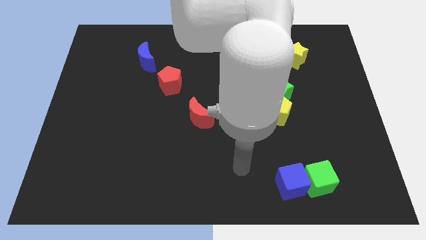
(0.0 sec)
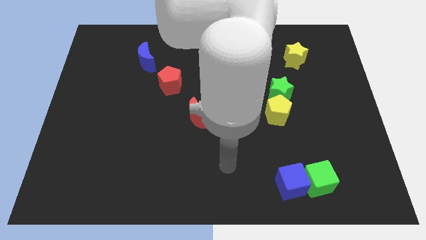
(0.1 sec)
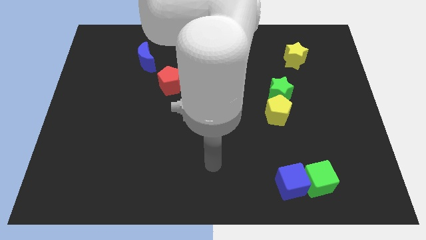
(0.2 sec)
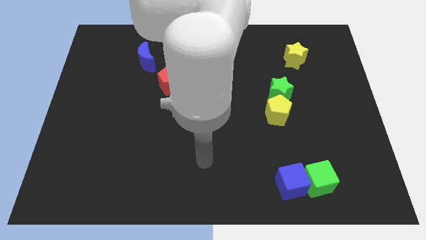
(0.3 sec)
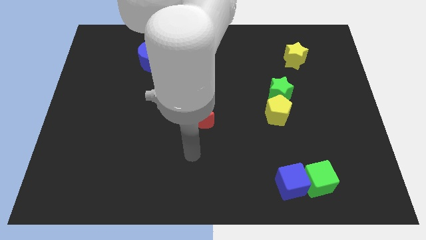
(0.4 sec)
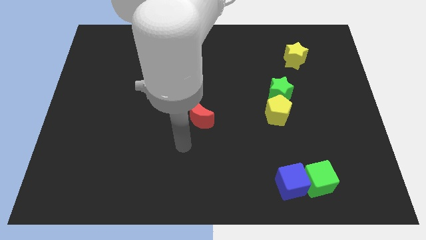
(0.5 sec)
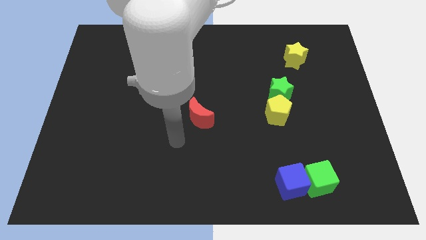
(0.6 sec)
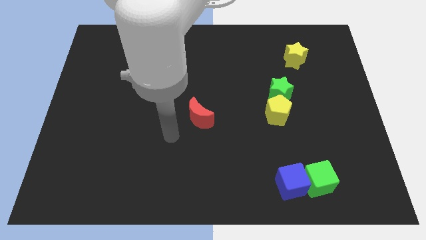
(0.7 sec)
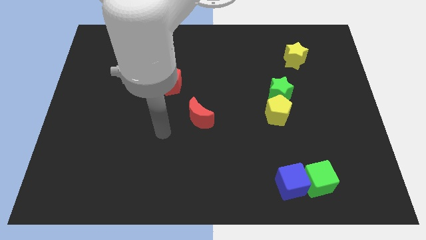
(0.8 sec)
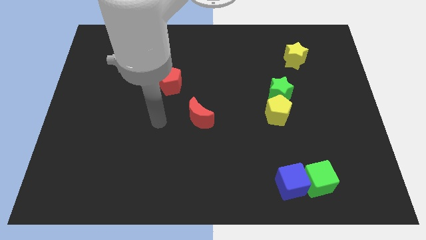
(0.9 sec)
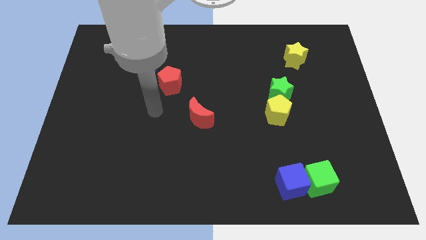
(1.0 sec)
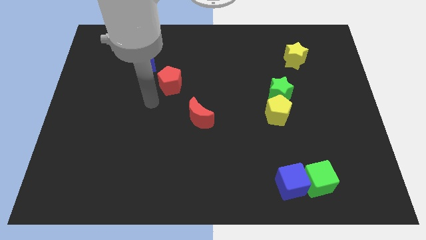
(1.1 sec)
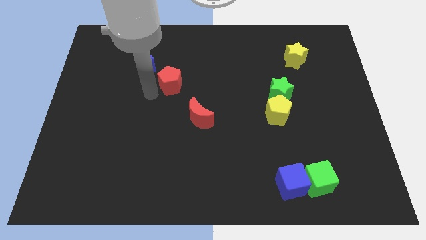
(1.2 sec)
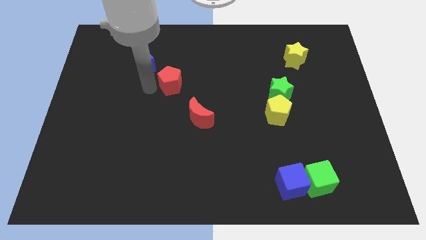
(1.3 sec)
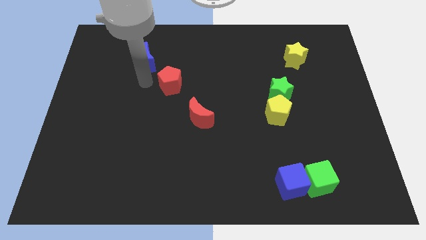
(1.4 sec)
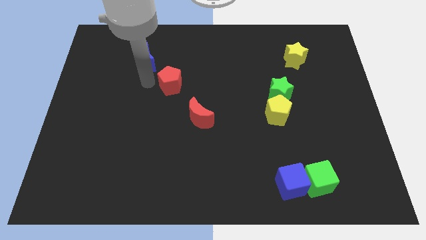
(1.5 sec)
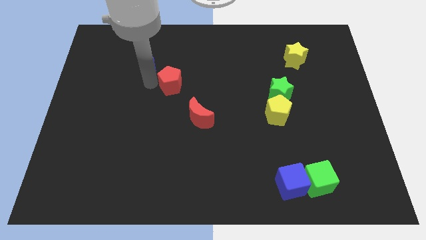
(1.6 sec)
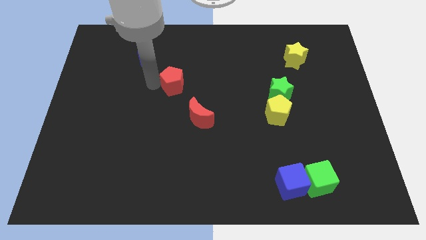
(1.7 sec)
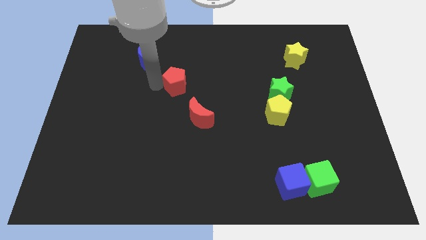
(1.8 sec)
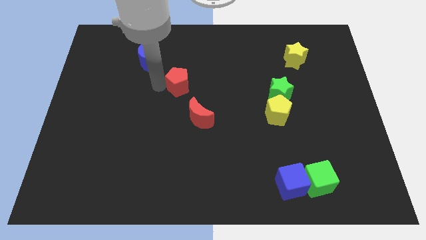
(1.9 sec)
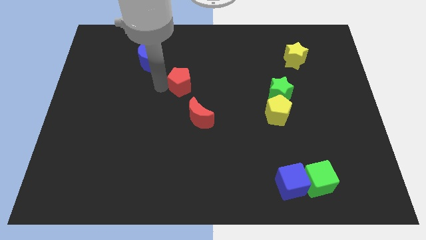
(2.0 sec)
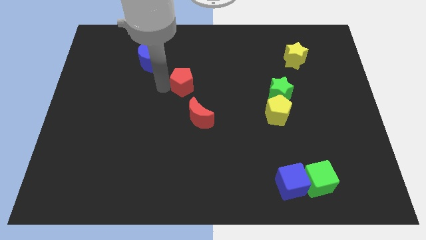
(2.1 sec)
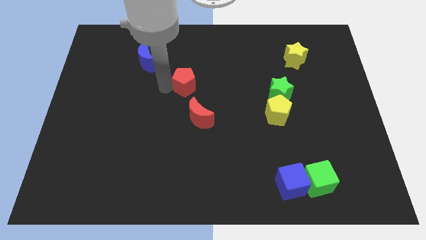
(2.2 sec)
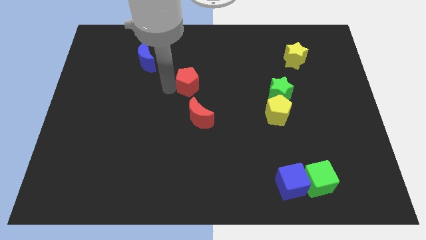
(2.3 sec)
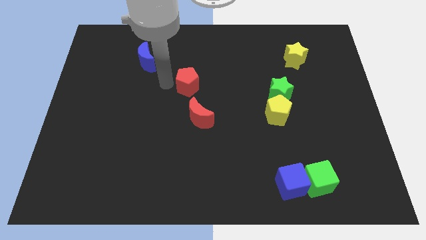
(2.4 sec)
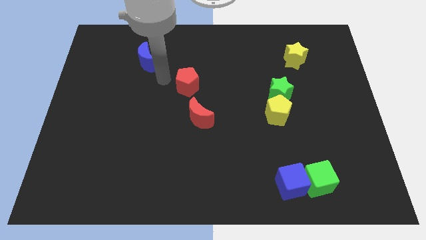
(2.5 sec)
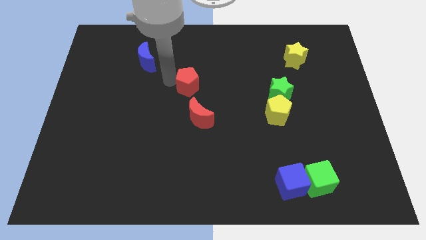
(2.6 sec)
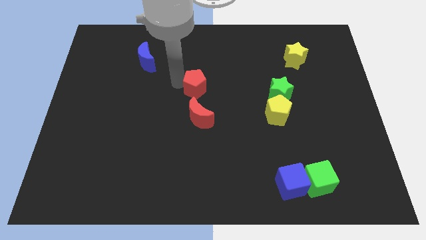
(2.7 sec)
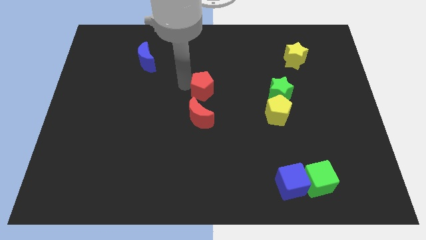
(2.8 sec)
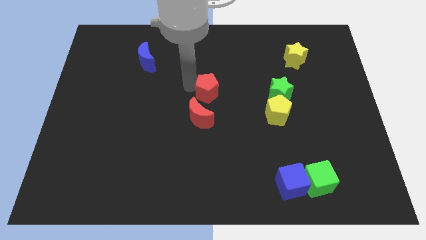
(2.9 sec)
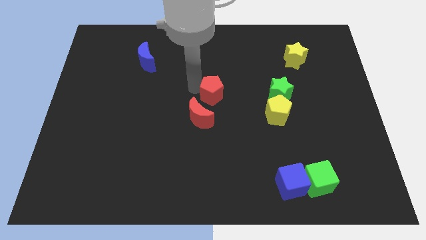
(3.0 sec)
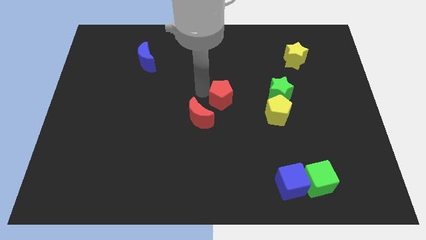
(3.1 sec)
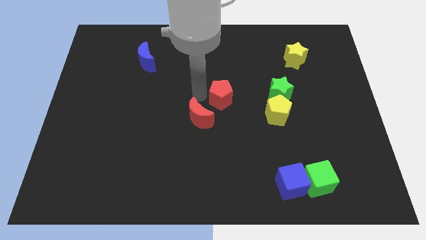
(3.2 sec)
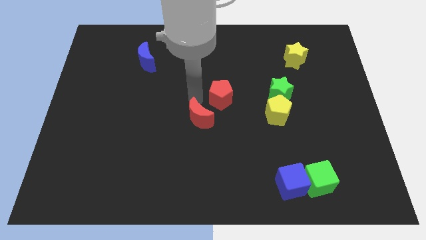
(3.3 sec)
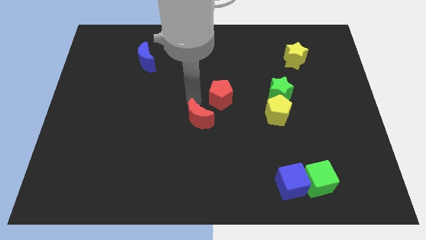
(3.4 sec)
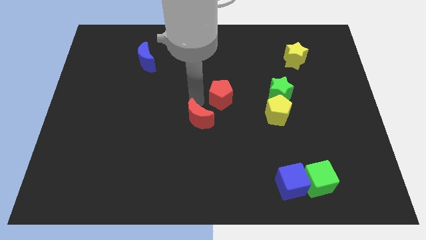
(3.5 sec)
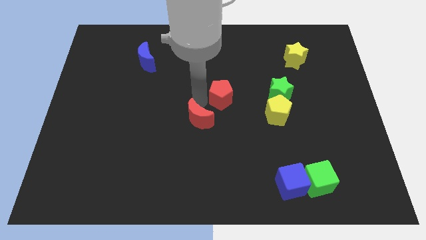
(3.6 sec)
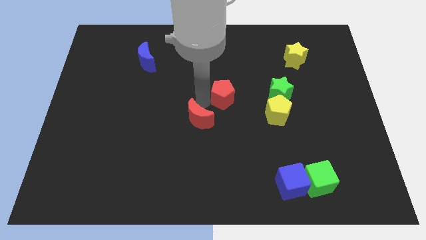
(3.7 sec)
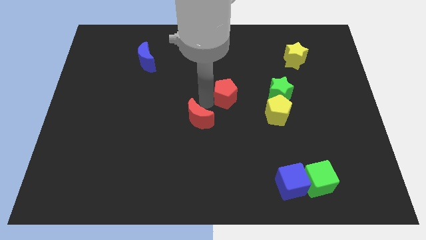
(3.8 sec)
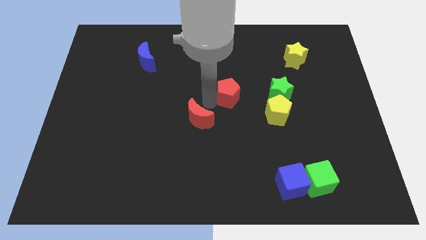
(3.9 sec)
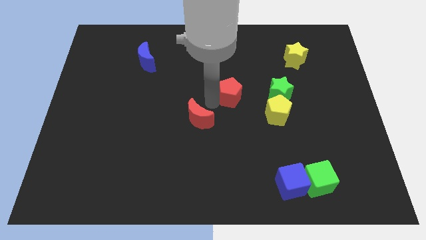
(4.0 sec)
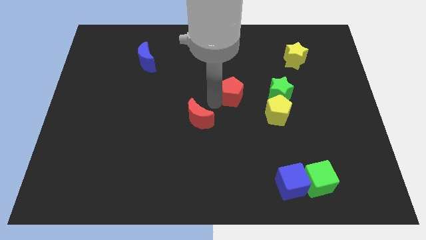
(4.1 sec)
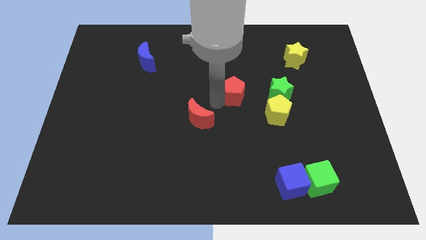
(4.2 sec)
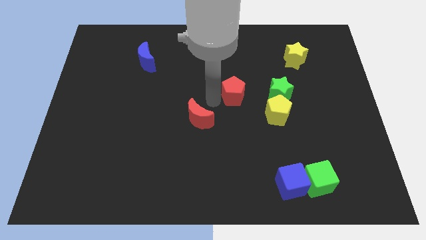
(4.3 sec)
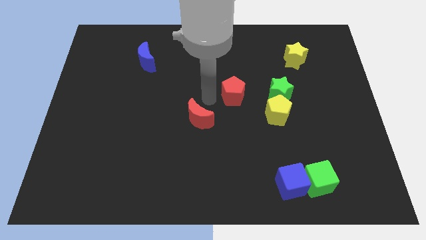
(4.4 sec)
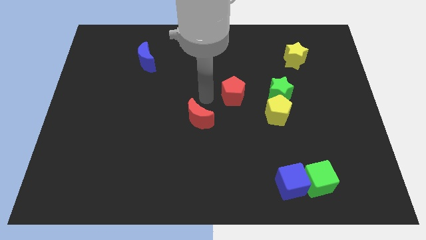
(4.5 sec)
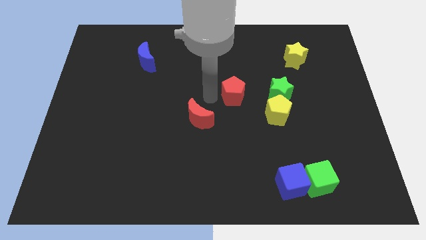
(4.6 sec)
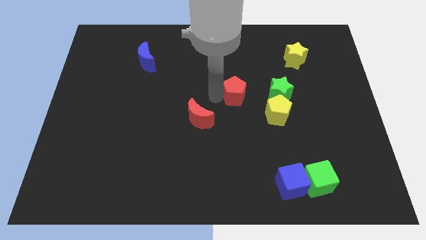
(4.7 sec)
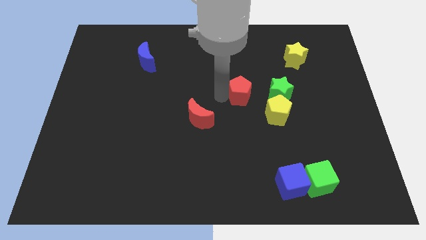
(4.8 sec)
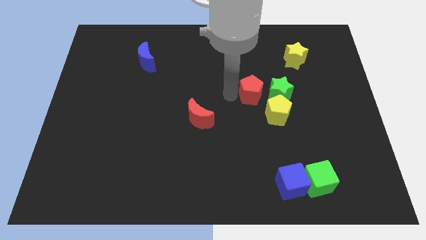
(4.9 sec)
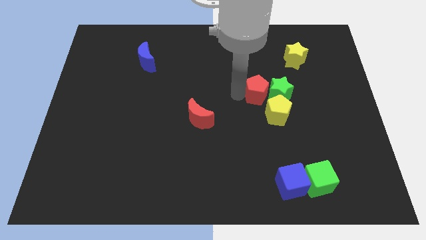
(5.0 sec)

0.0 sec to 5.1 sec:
push the red pentagon towards the green star

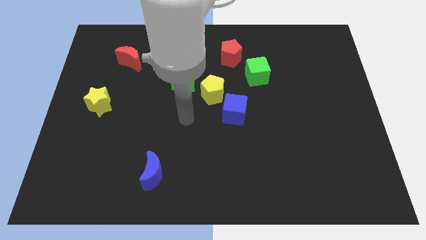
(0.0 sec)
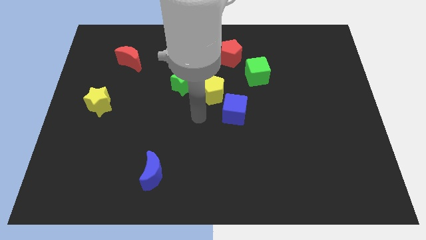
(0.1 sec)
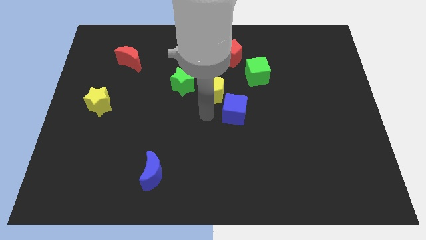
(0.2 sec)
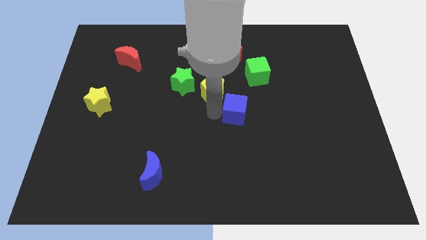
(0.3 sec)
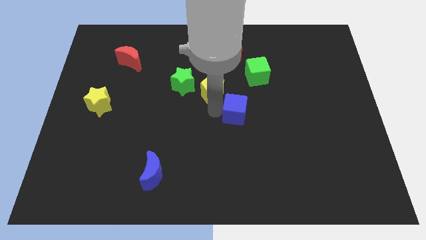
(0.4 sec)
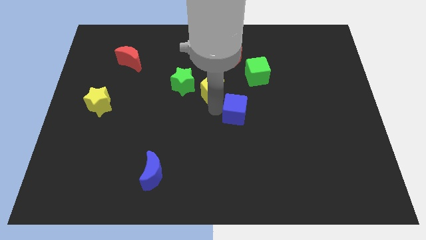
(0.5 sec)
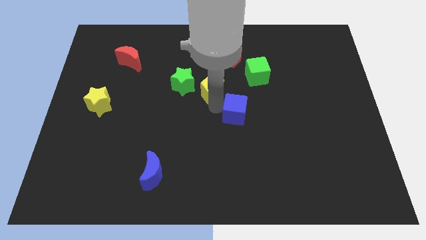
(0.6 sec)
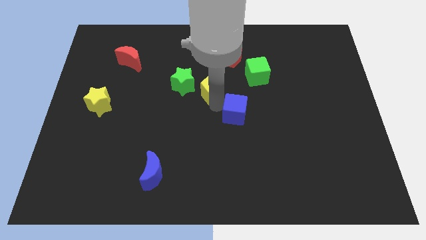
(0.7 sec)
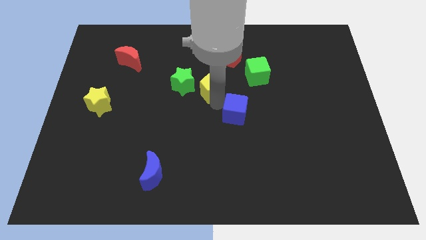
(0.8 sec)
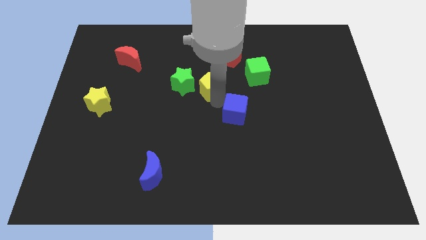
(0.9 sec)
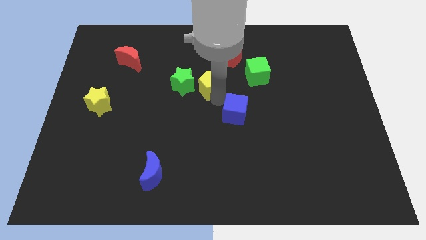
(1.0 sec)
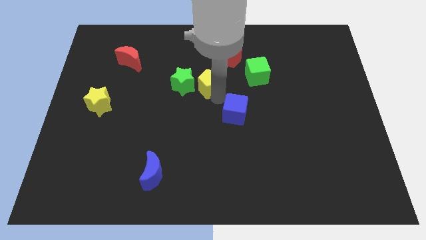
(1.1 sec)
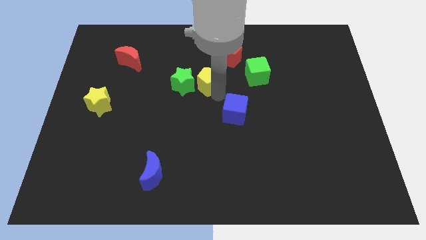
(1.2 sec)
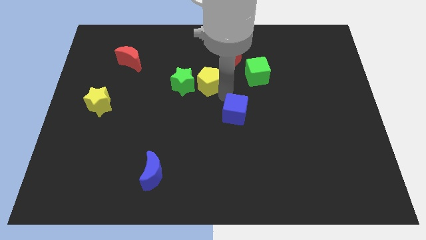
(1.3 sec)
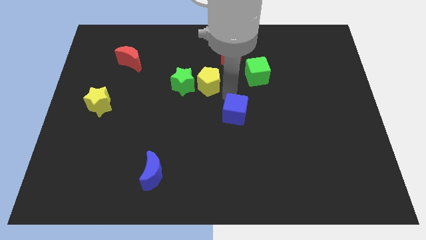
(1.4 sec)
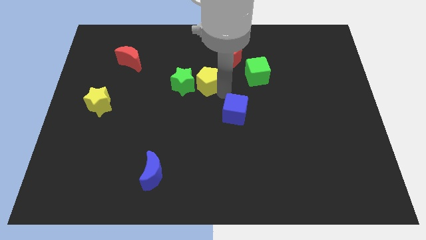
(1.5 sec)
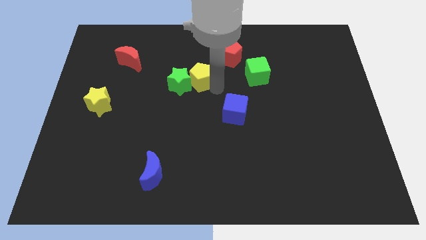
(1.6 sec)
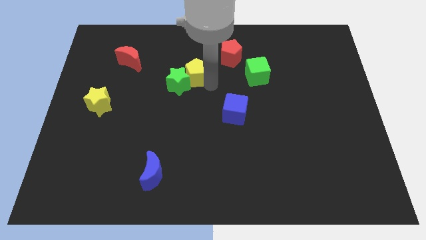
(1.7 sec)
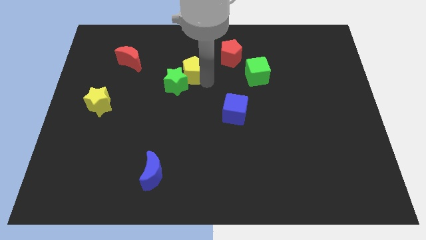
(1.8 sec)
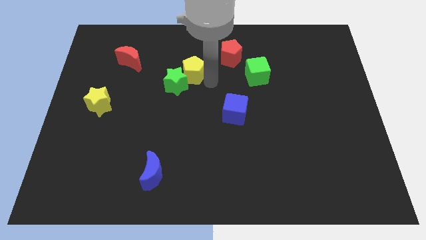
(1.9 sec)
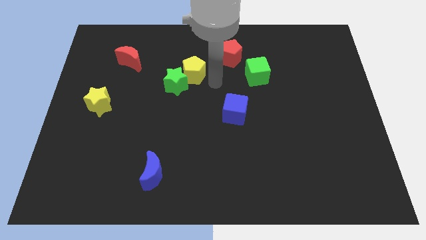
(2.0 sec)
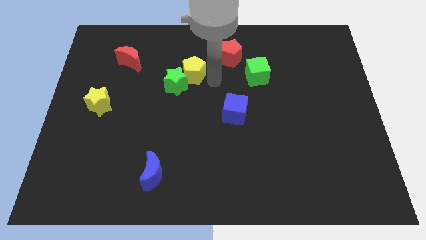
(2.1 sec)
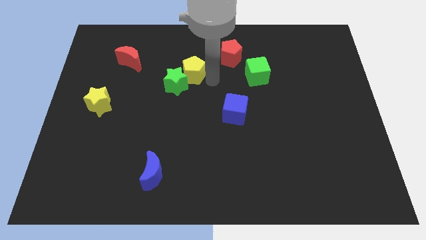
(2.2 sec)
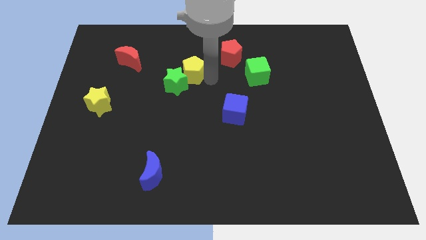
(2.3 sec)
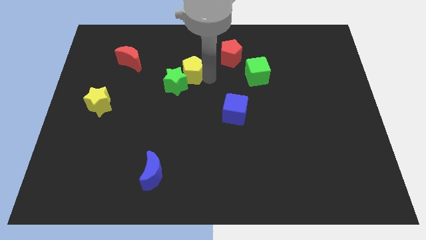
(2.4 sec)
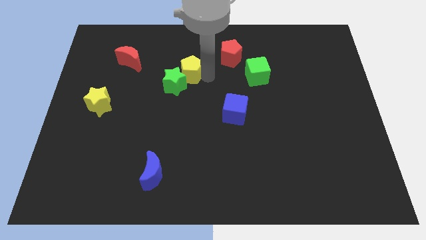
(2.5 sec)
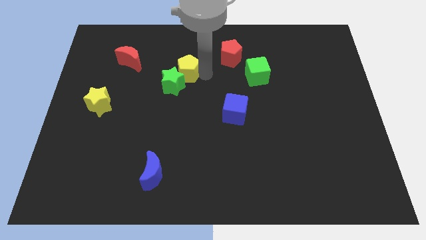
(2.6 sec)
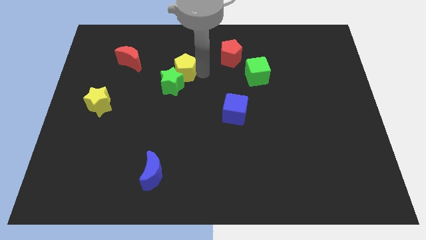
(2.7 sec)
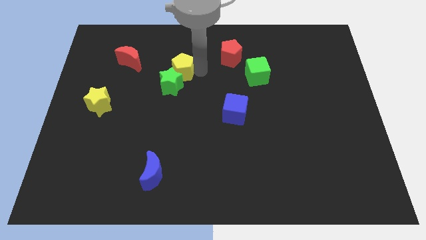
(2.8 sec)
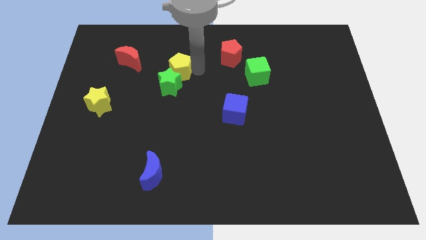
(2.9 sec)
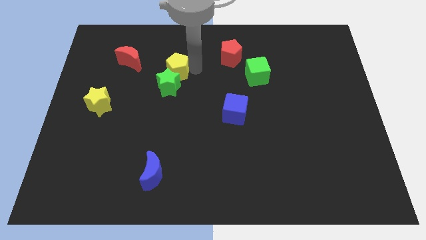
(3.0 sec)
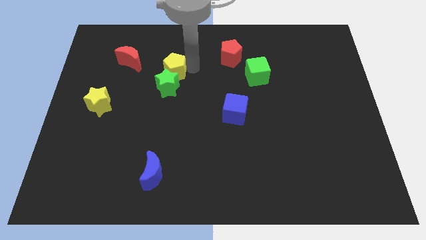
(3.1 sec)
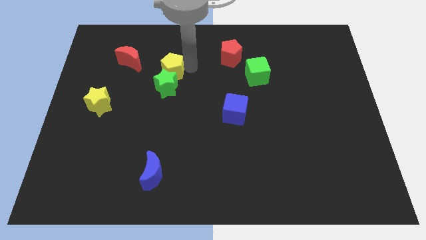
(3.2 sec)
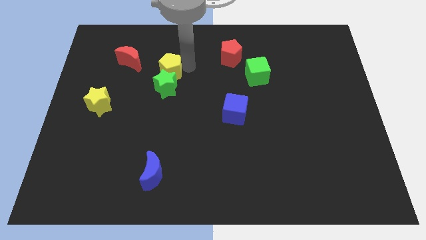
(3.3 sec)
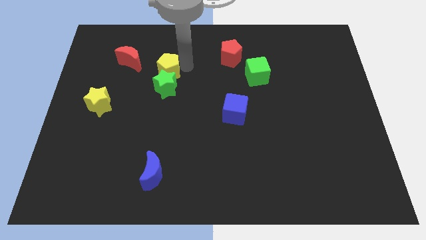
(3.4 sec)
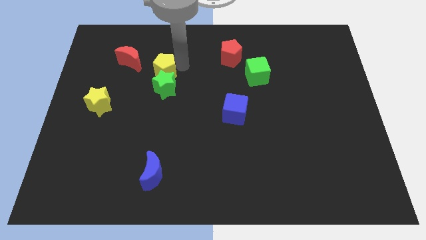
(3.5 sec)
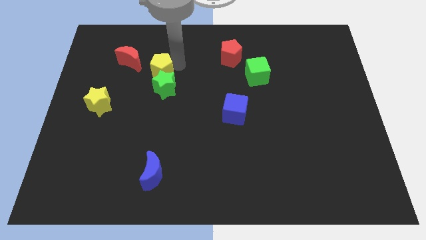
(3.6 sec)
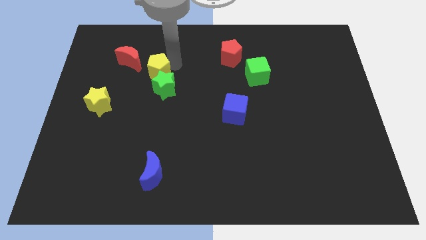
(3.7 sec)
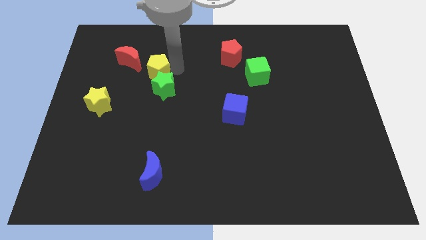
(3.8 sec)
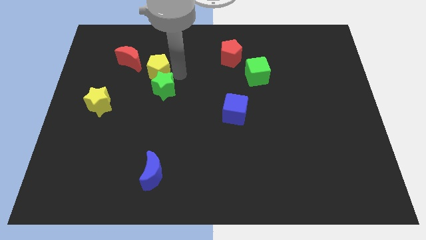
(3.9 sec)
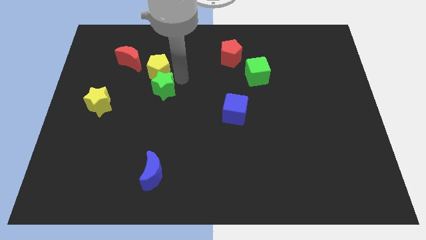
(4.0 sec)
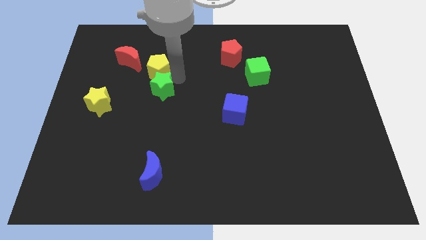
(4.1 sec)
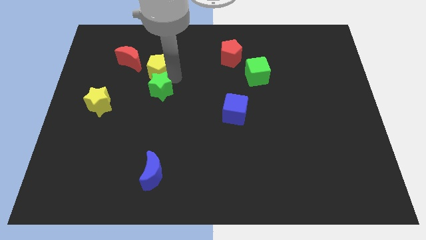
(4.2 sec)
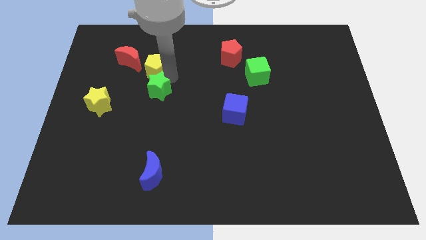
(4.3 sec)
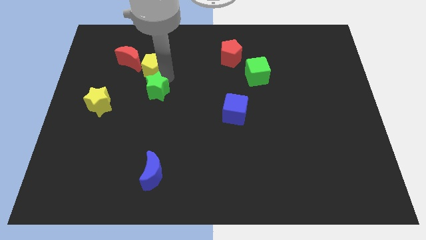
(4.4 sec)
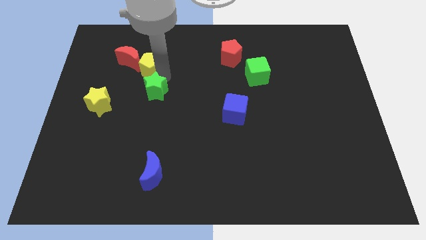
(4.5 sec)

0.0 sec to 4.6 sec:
push the yellow pentagon to the red moon
